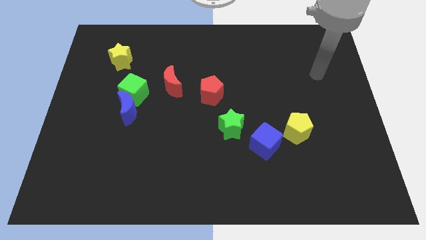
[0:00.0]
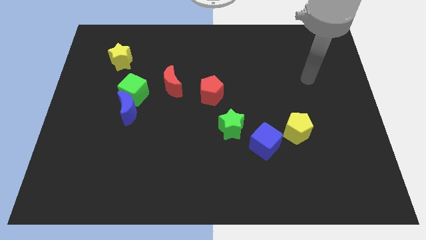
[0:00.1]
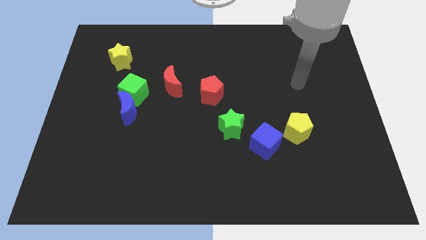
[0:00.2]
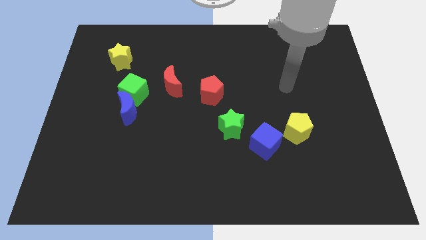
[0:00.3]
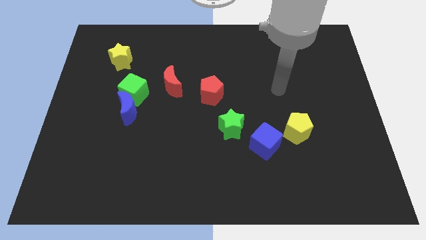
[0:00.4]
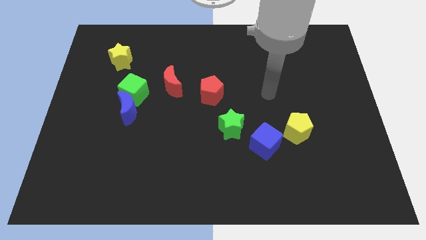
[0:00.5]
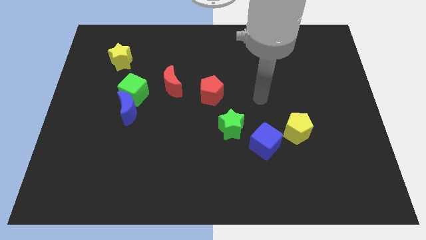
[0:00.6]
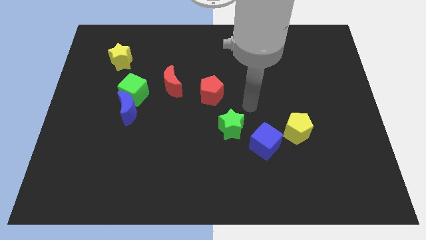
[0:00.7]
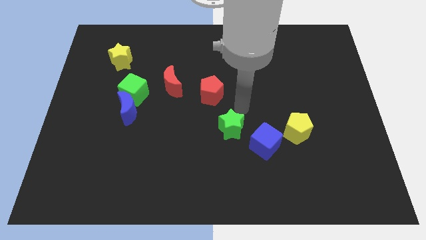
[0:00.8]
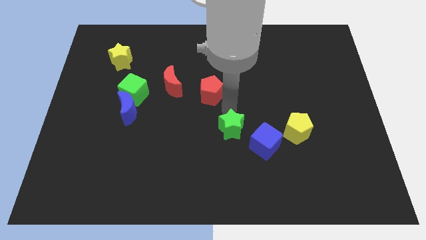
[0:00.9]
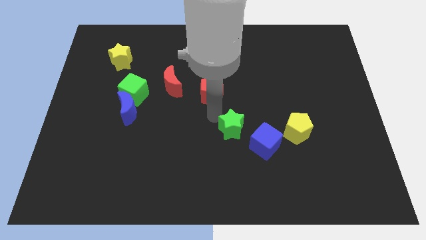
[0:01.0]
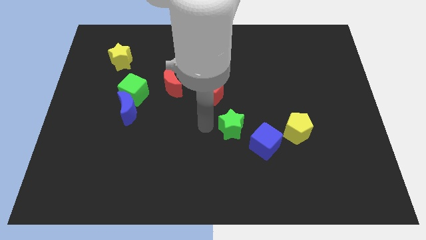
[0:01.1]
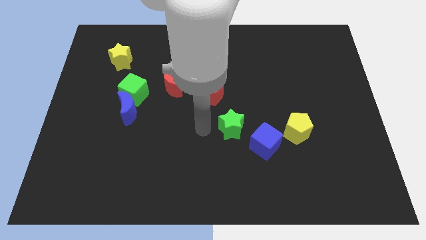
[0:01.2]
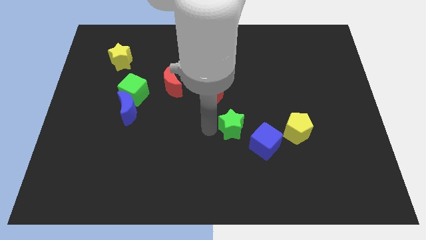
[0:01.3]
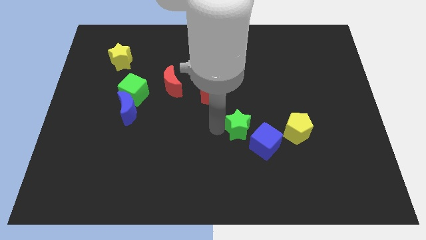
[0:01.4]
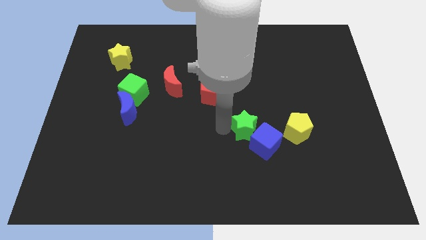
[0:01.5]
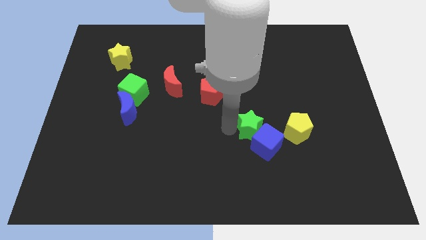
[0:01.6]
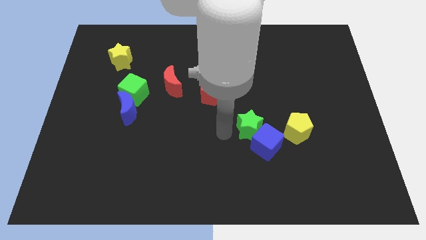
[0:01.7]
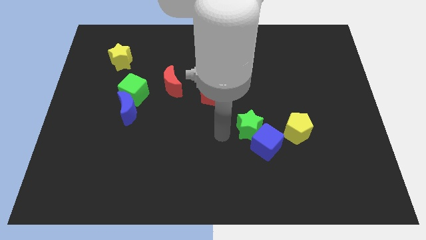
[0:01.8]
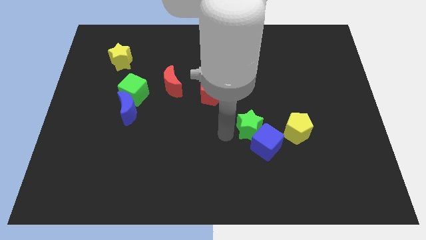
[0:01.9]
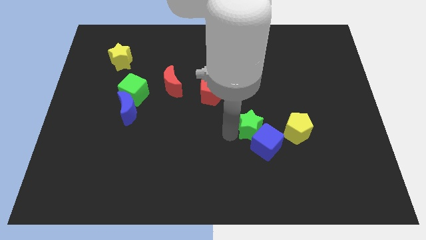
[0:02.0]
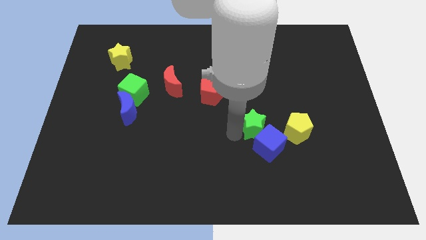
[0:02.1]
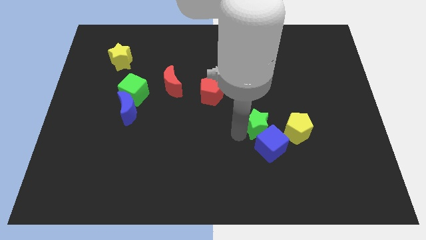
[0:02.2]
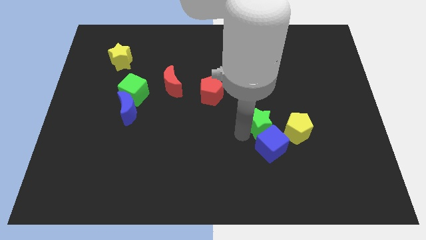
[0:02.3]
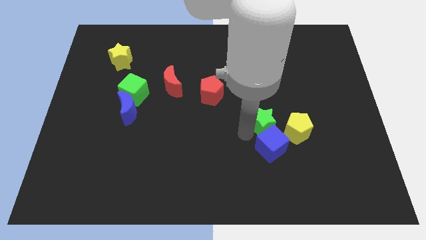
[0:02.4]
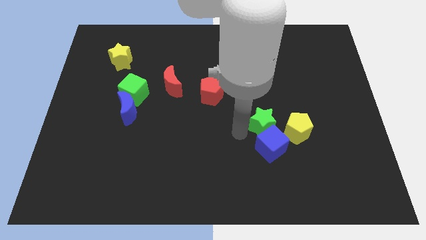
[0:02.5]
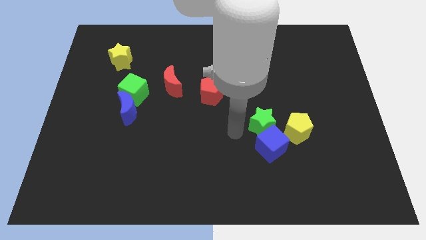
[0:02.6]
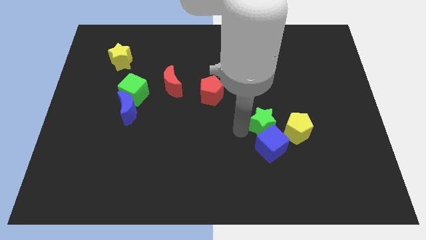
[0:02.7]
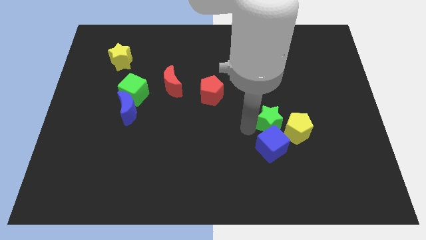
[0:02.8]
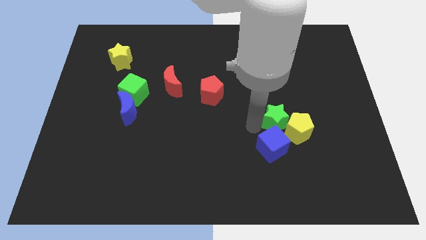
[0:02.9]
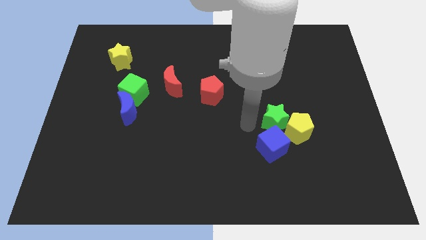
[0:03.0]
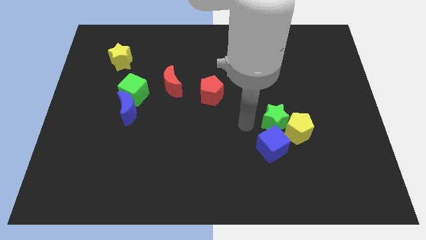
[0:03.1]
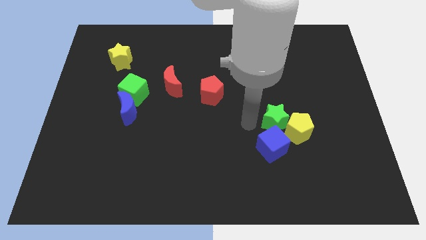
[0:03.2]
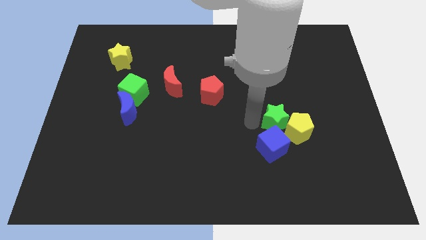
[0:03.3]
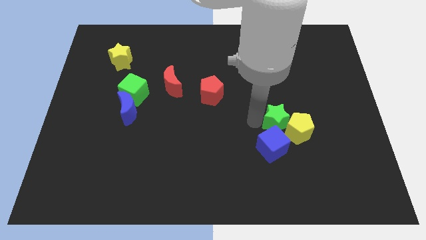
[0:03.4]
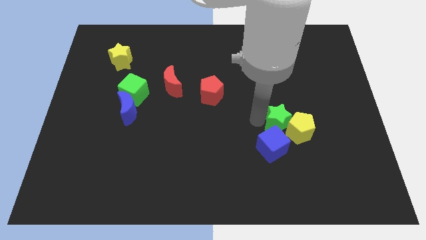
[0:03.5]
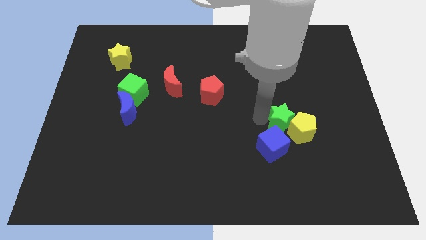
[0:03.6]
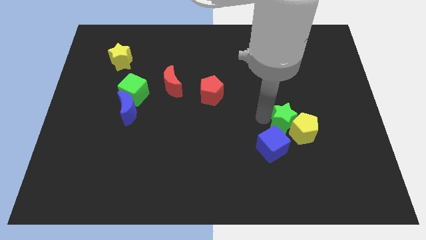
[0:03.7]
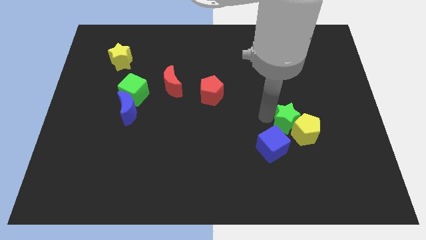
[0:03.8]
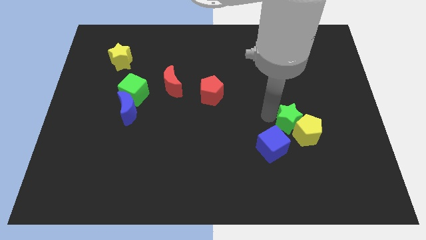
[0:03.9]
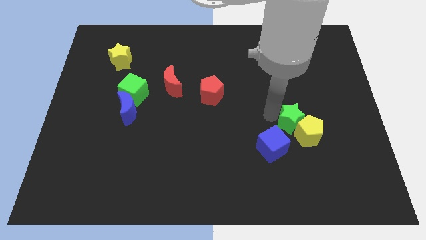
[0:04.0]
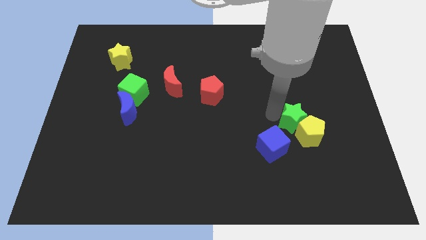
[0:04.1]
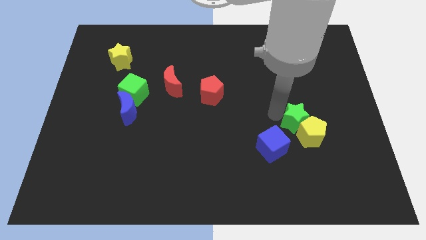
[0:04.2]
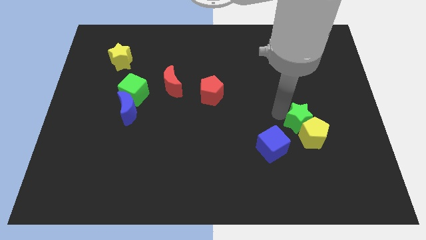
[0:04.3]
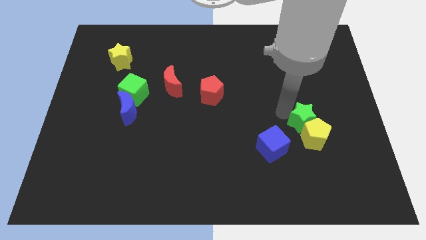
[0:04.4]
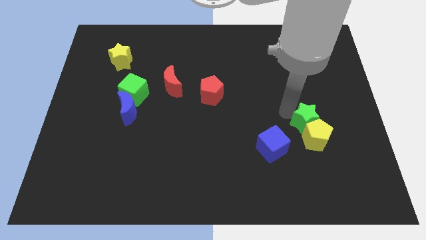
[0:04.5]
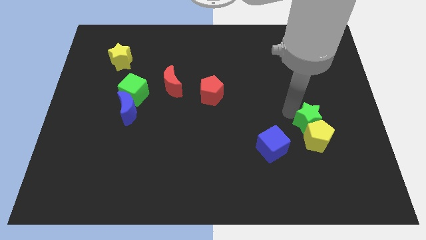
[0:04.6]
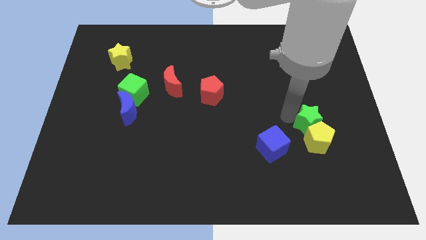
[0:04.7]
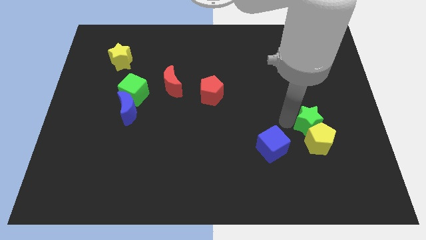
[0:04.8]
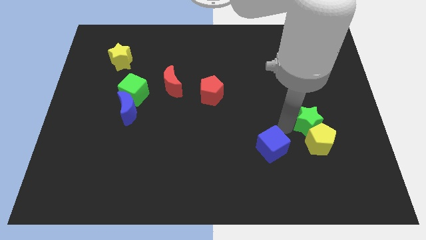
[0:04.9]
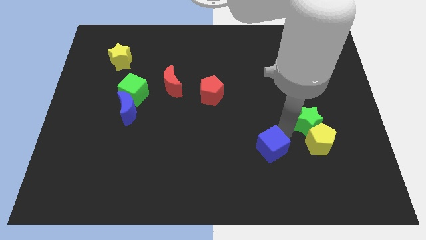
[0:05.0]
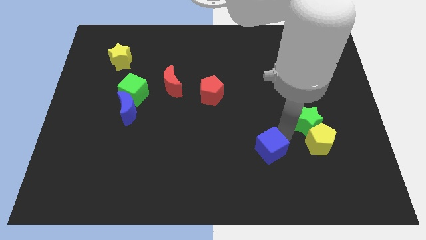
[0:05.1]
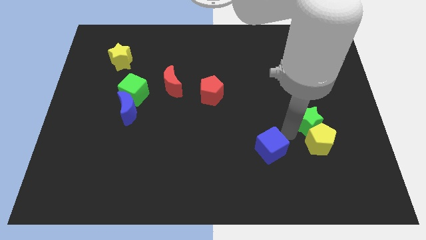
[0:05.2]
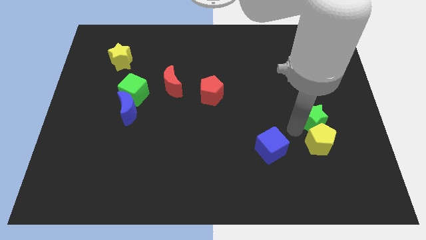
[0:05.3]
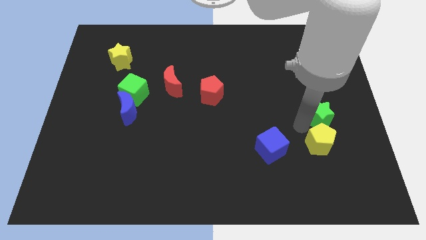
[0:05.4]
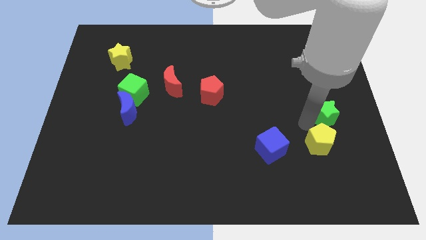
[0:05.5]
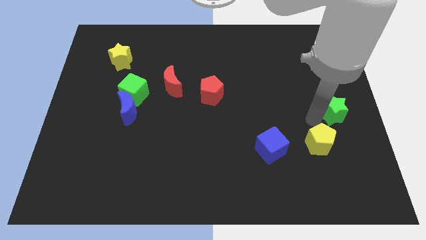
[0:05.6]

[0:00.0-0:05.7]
push the green star to the right side of the board

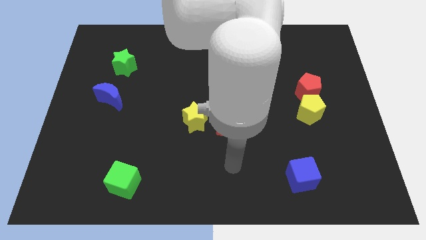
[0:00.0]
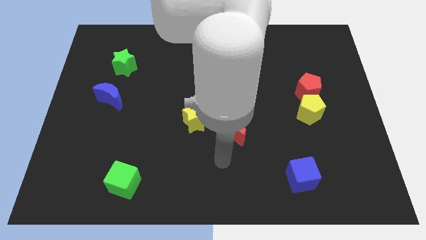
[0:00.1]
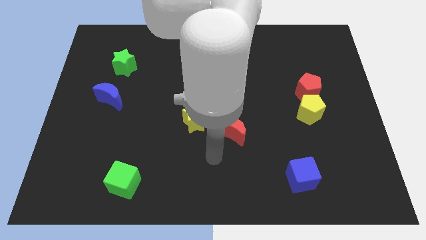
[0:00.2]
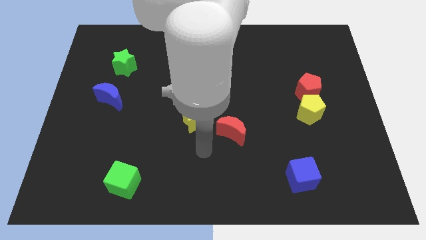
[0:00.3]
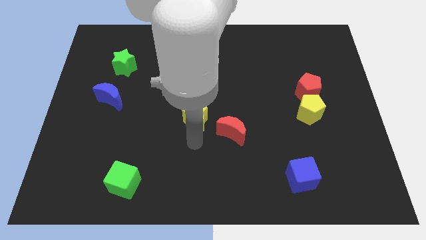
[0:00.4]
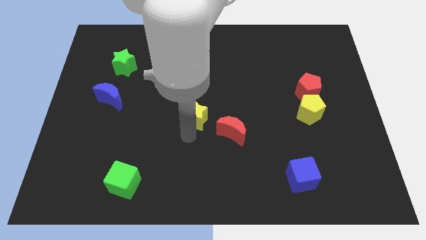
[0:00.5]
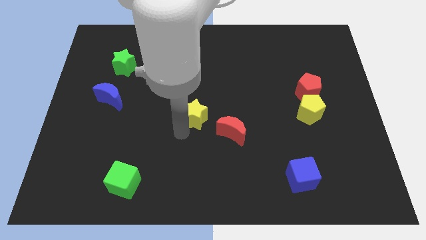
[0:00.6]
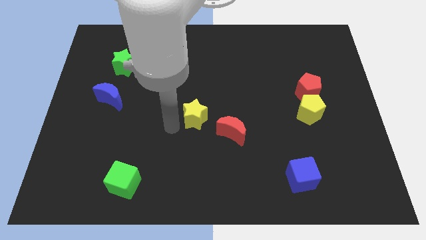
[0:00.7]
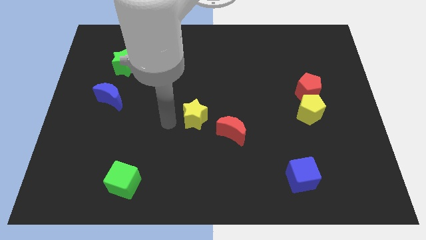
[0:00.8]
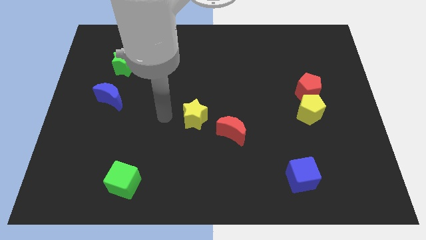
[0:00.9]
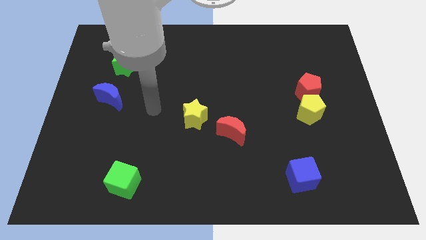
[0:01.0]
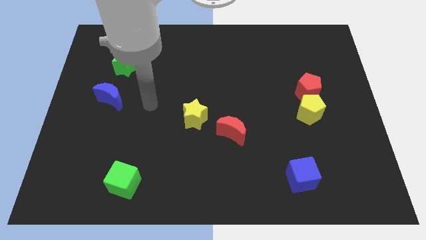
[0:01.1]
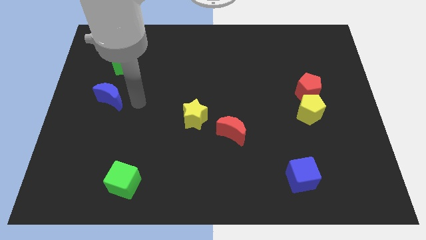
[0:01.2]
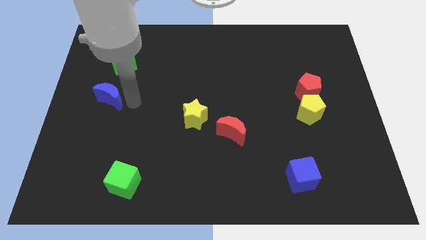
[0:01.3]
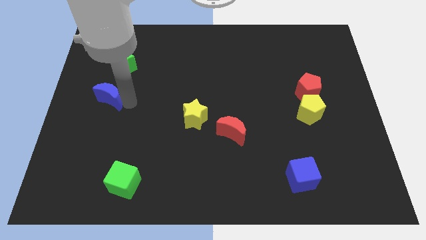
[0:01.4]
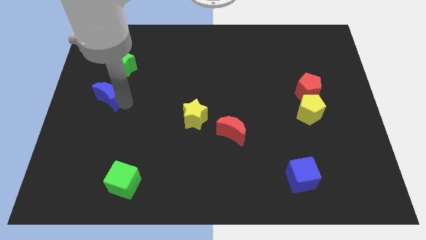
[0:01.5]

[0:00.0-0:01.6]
push the blue moon to the center left

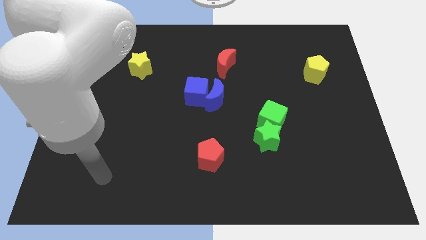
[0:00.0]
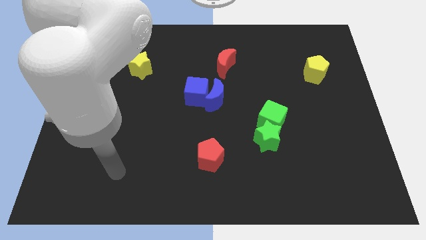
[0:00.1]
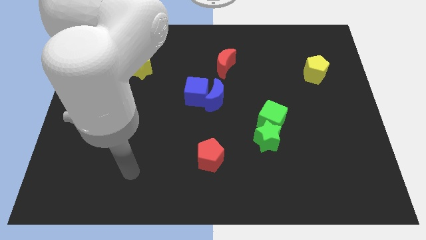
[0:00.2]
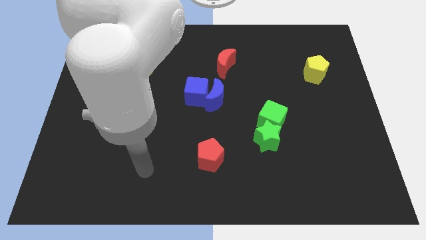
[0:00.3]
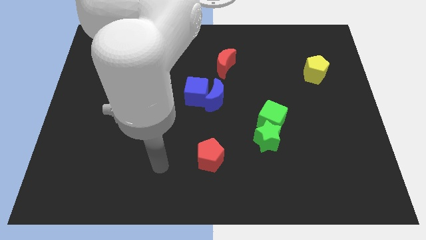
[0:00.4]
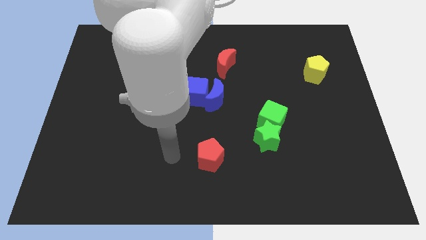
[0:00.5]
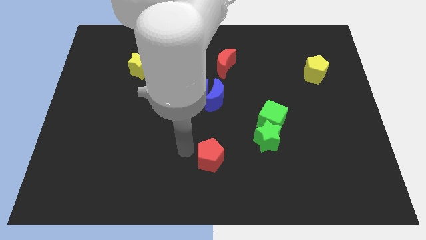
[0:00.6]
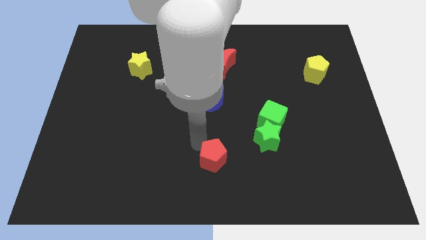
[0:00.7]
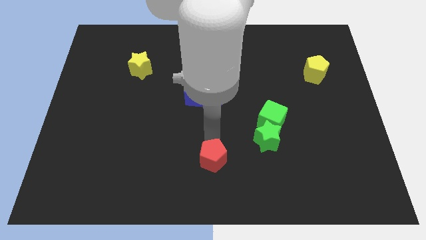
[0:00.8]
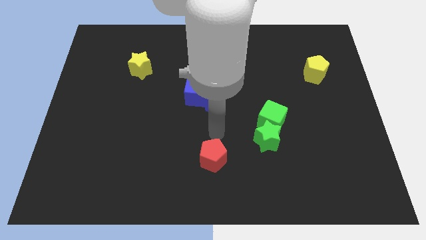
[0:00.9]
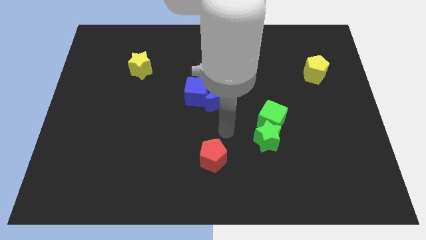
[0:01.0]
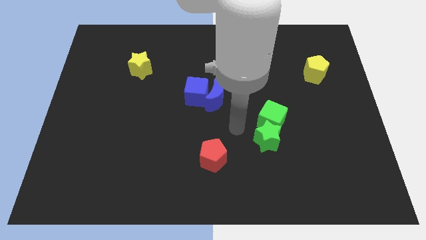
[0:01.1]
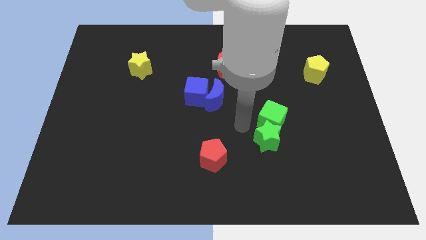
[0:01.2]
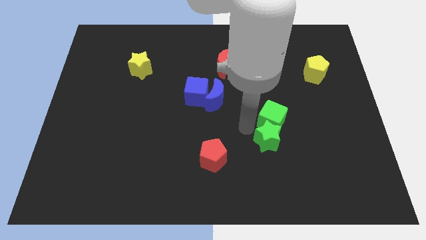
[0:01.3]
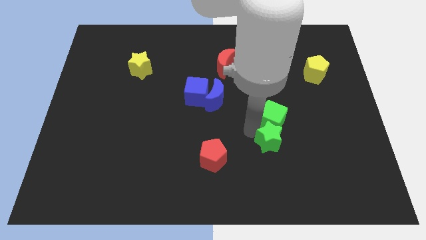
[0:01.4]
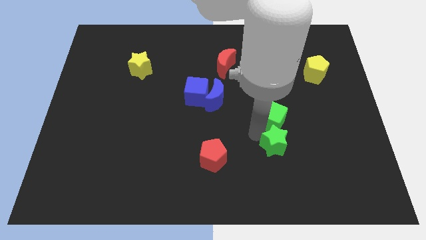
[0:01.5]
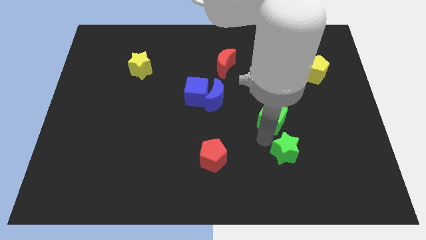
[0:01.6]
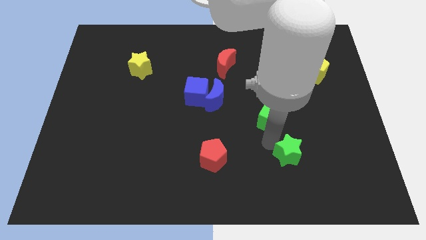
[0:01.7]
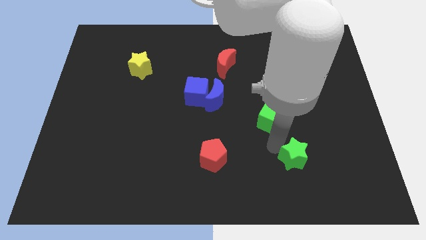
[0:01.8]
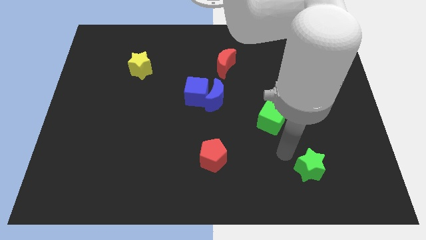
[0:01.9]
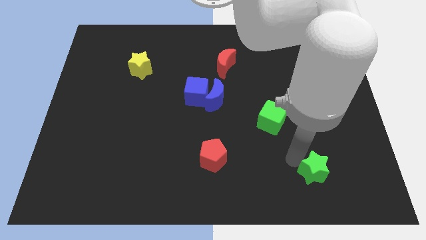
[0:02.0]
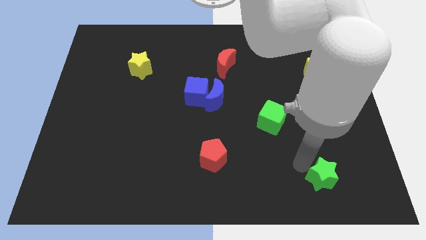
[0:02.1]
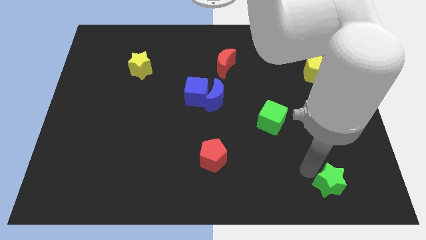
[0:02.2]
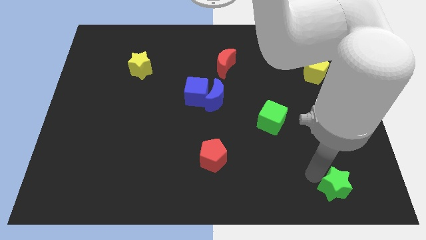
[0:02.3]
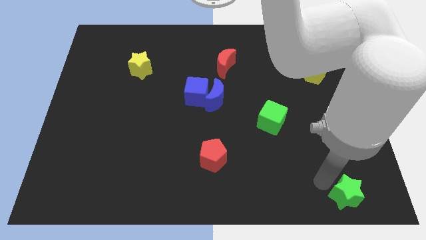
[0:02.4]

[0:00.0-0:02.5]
push the green star to the lower right corner
